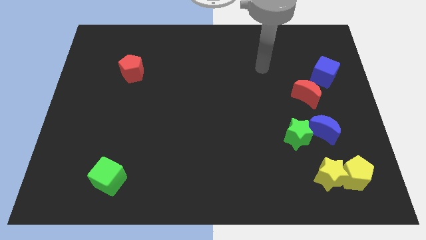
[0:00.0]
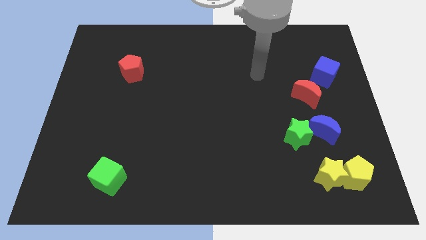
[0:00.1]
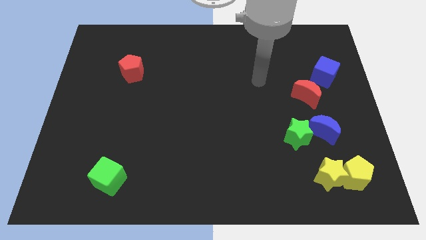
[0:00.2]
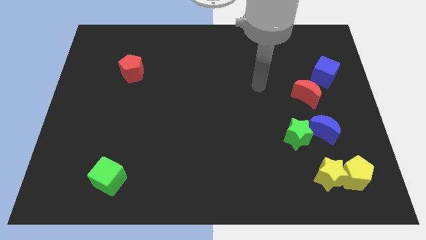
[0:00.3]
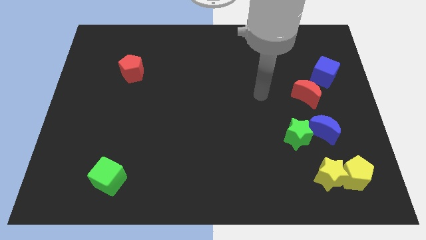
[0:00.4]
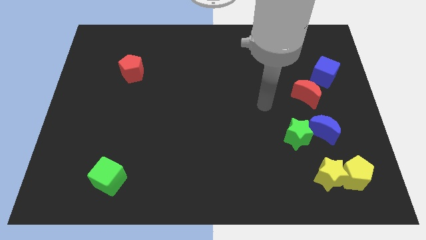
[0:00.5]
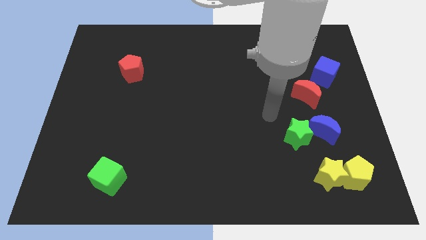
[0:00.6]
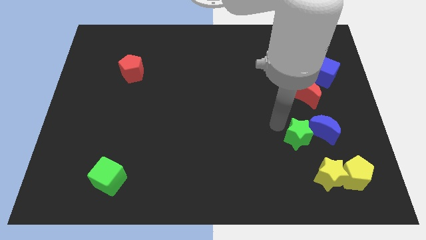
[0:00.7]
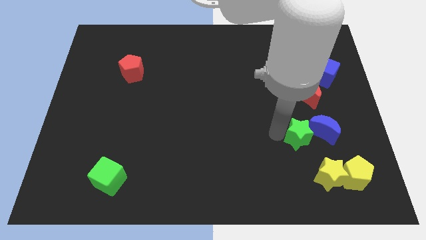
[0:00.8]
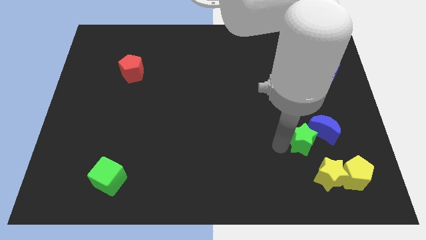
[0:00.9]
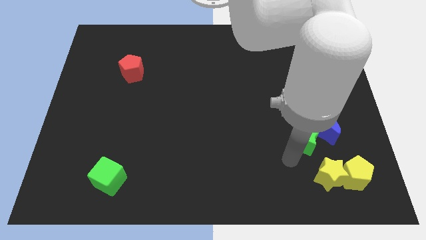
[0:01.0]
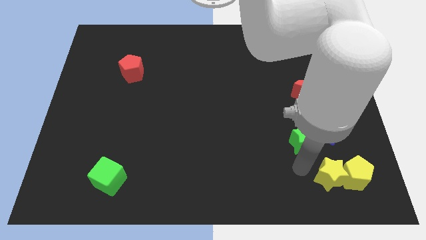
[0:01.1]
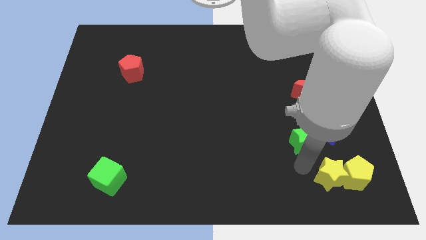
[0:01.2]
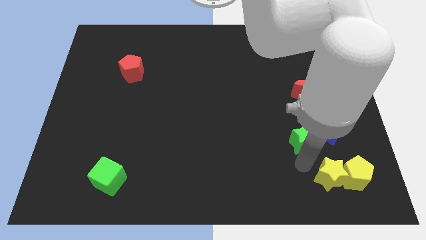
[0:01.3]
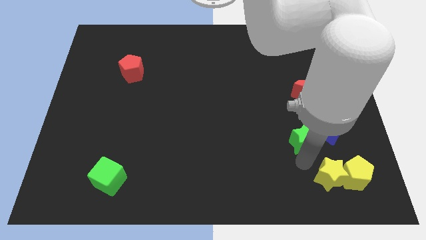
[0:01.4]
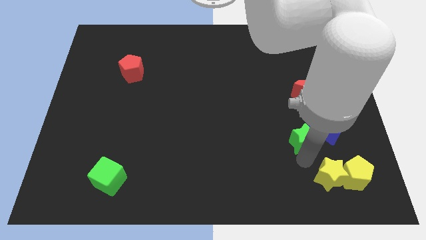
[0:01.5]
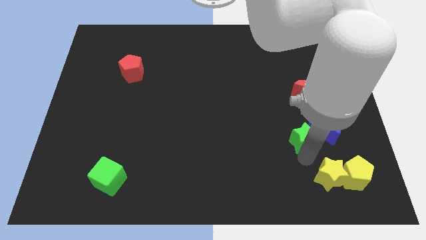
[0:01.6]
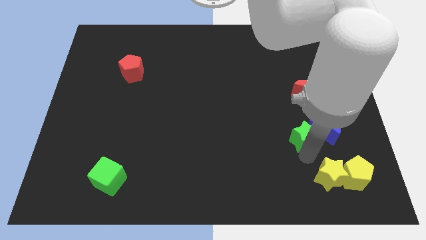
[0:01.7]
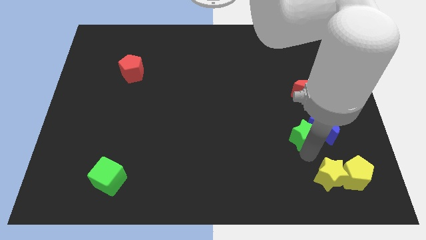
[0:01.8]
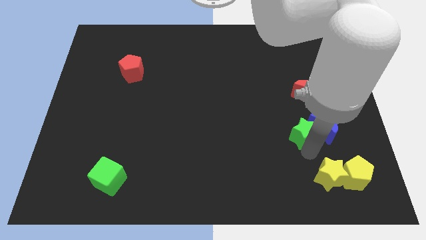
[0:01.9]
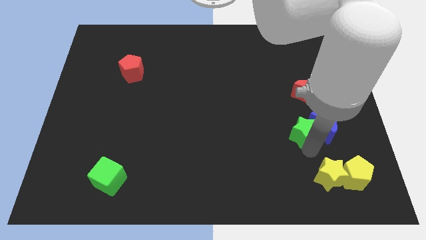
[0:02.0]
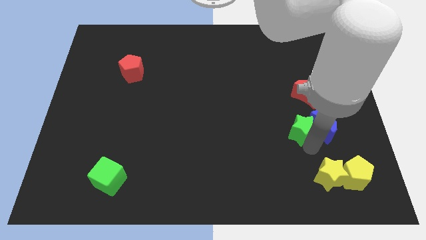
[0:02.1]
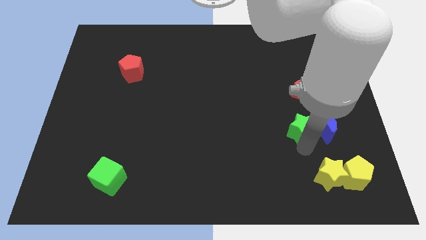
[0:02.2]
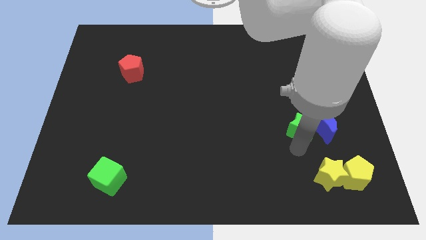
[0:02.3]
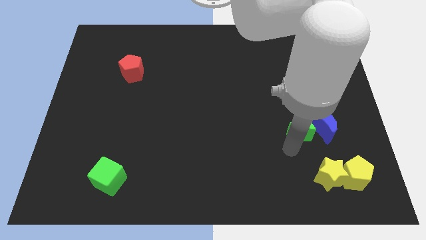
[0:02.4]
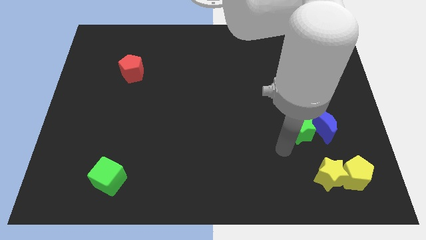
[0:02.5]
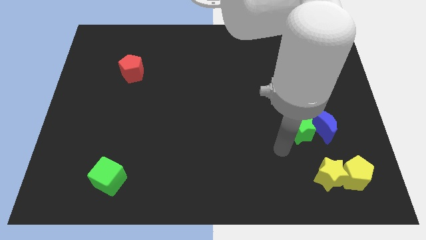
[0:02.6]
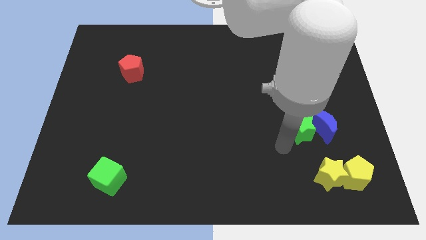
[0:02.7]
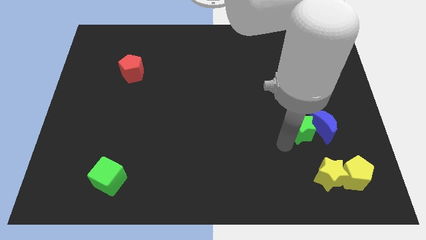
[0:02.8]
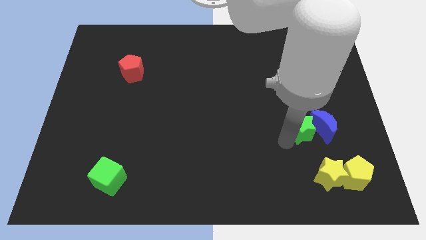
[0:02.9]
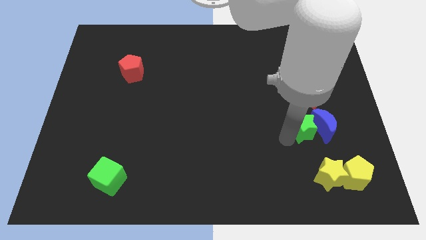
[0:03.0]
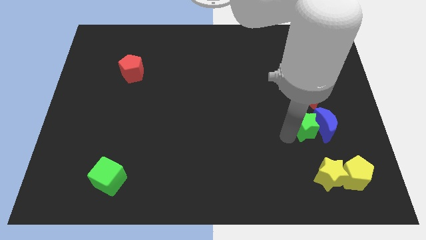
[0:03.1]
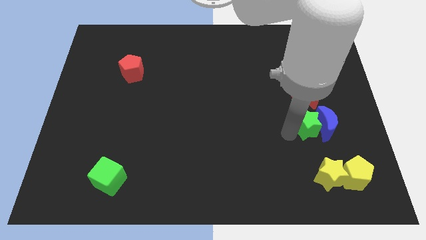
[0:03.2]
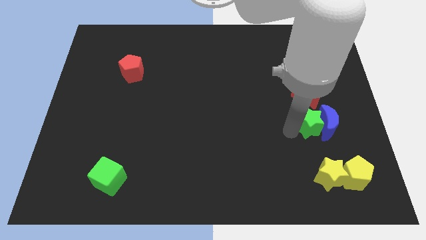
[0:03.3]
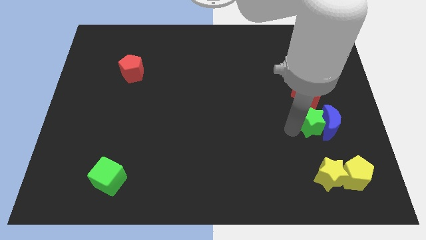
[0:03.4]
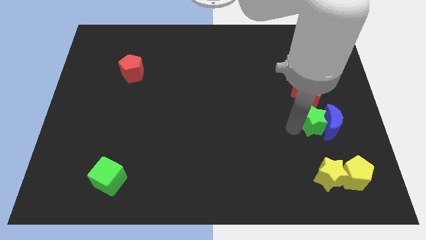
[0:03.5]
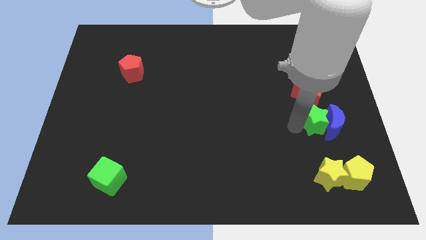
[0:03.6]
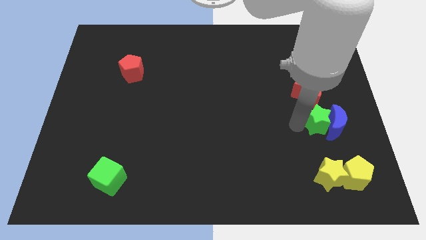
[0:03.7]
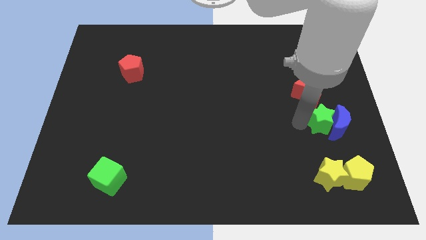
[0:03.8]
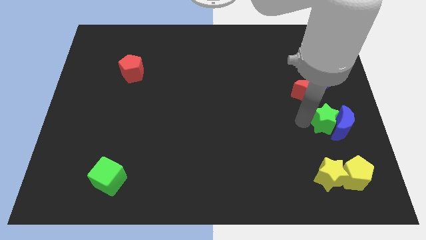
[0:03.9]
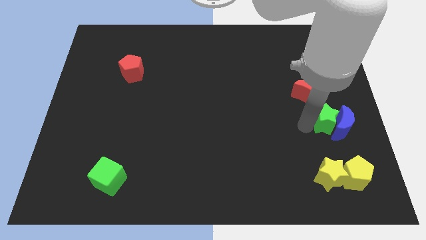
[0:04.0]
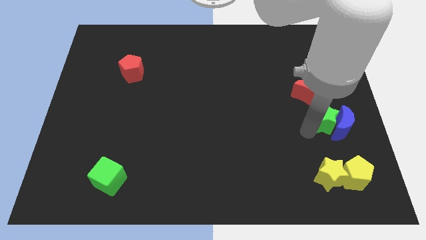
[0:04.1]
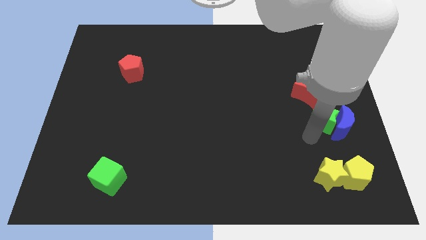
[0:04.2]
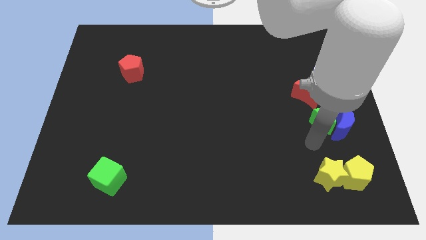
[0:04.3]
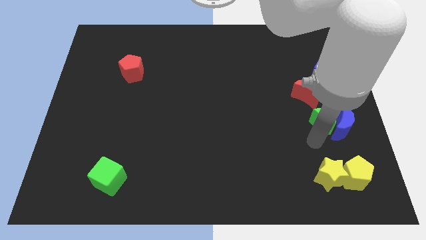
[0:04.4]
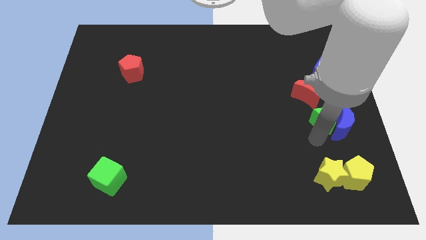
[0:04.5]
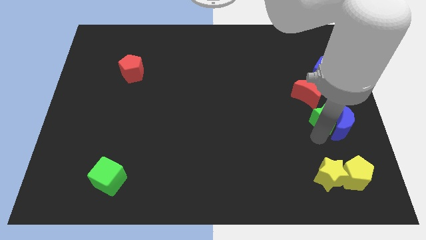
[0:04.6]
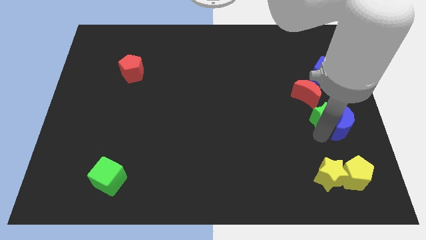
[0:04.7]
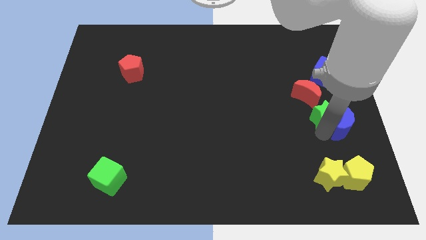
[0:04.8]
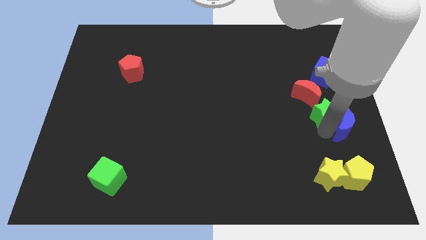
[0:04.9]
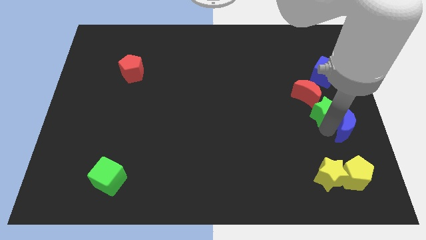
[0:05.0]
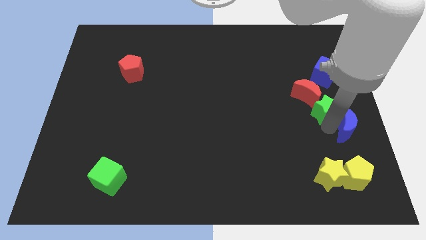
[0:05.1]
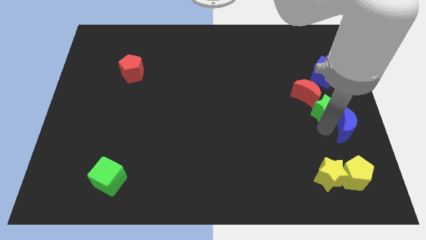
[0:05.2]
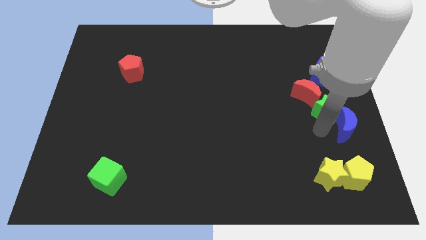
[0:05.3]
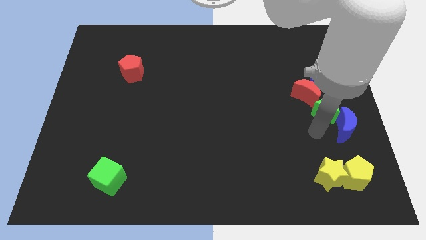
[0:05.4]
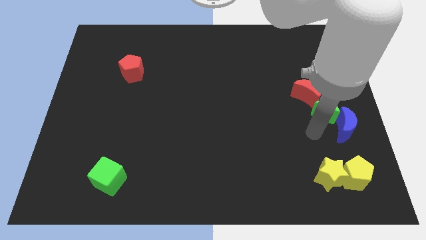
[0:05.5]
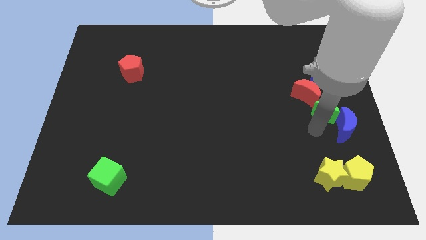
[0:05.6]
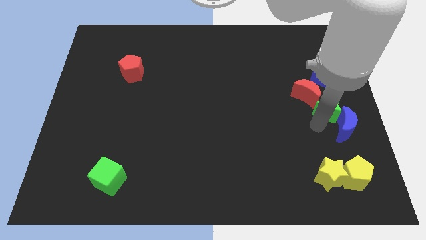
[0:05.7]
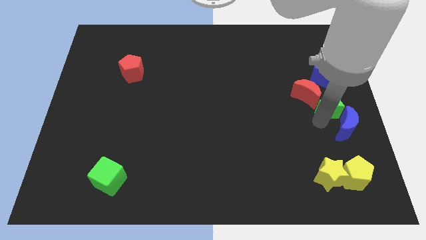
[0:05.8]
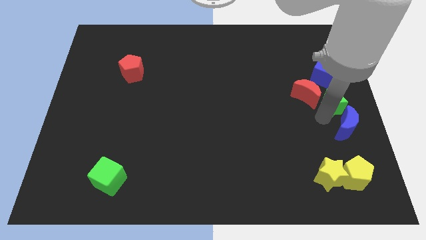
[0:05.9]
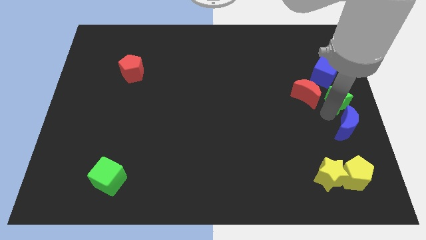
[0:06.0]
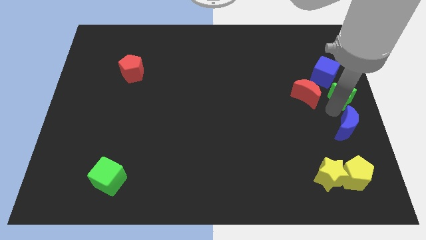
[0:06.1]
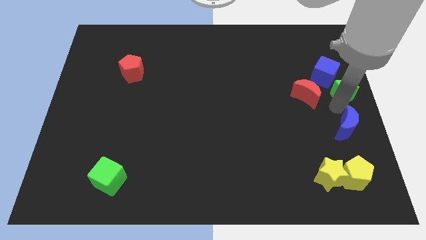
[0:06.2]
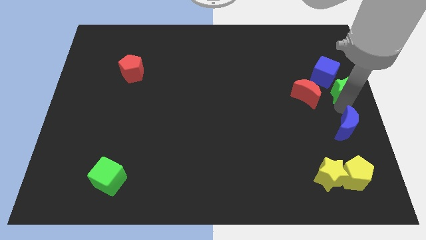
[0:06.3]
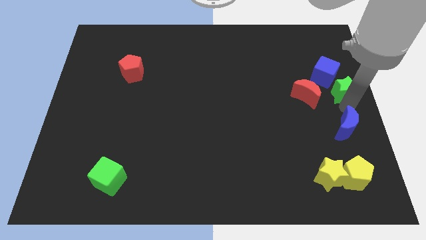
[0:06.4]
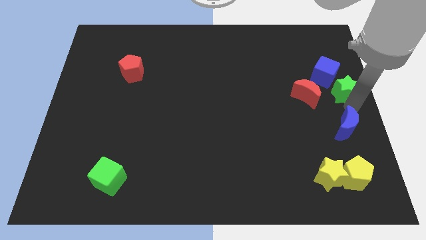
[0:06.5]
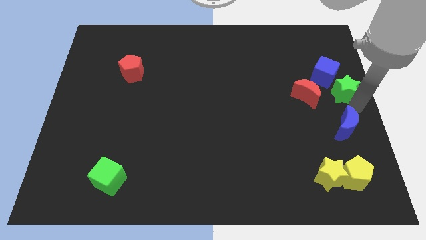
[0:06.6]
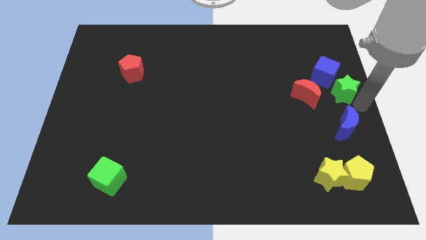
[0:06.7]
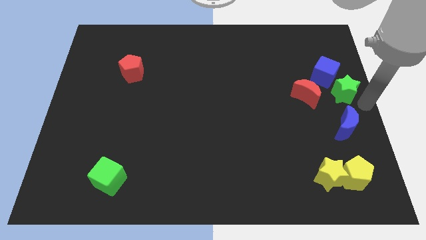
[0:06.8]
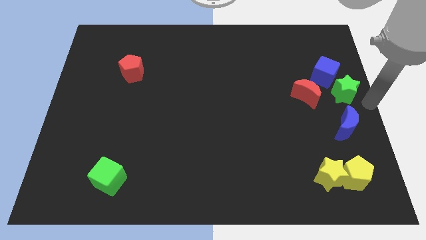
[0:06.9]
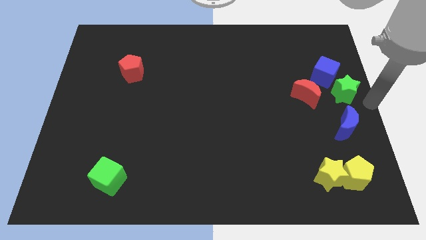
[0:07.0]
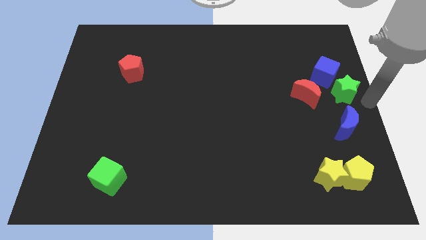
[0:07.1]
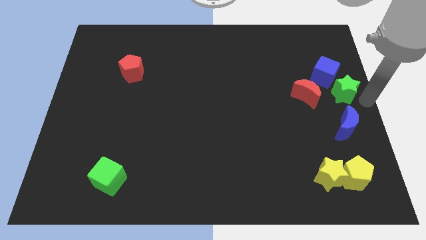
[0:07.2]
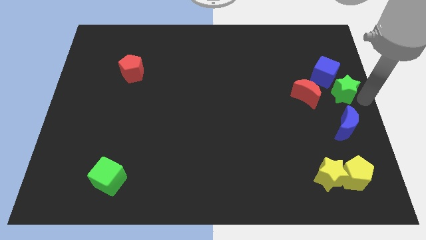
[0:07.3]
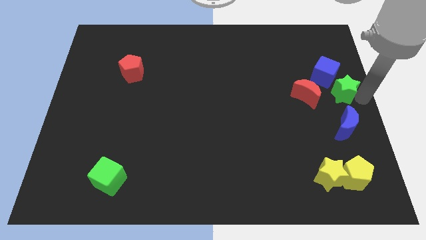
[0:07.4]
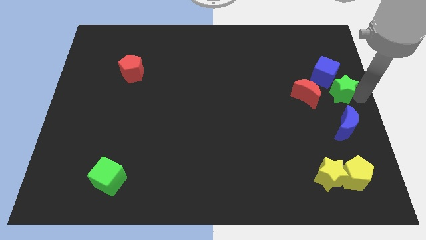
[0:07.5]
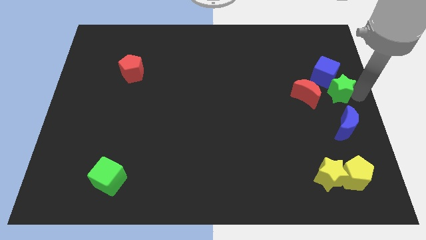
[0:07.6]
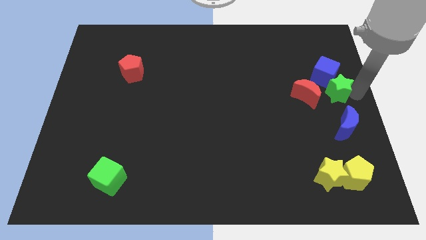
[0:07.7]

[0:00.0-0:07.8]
put the green star next to the blue cube
